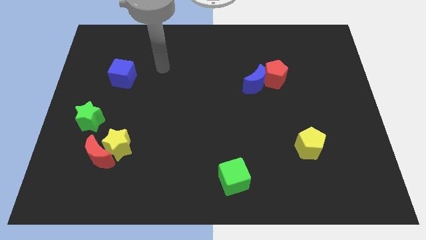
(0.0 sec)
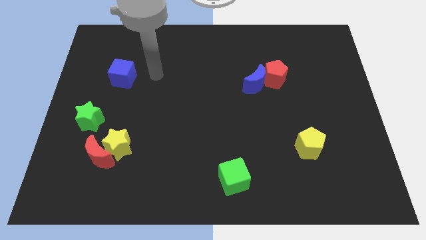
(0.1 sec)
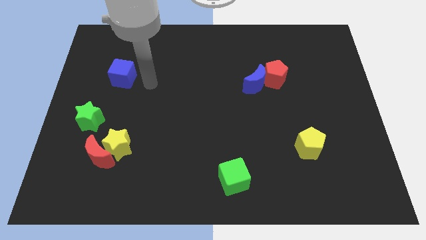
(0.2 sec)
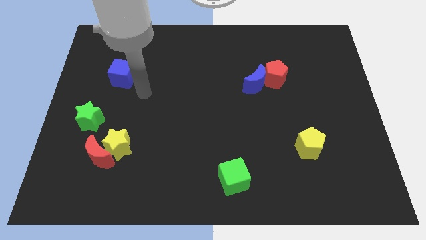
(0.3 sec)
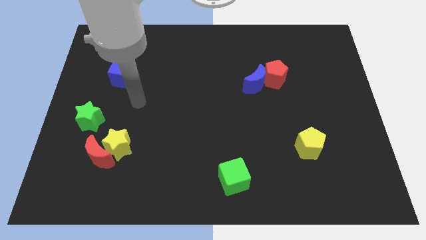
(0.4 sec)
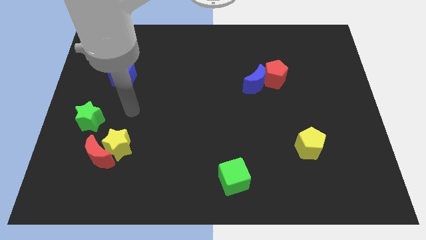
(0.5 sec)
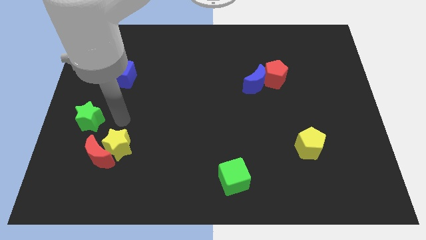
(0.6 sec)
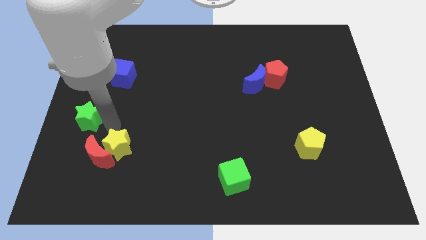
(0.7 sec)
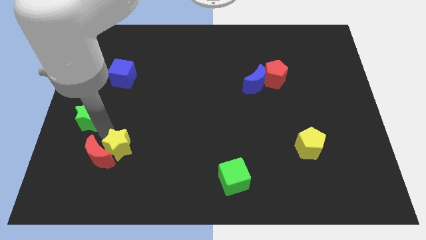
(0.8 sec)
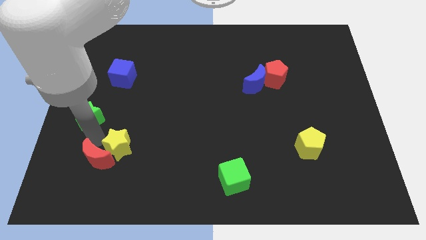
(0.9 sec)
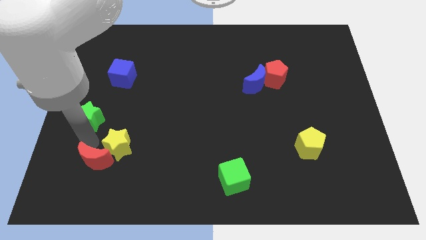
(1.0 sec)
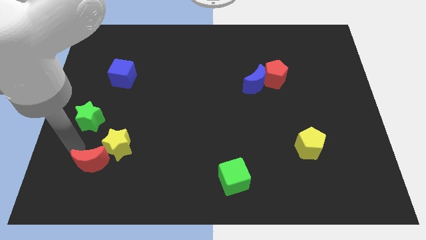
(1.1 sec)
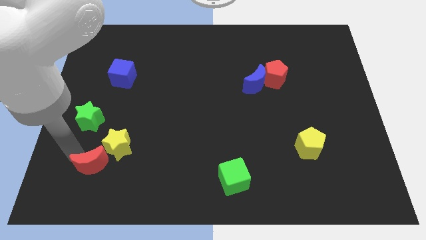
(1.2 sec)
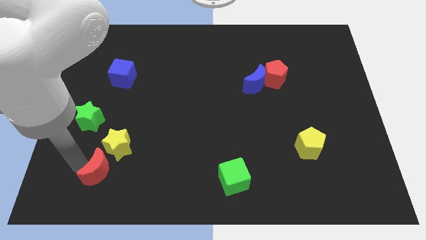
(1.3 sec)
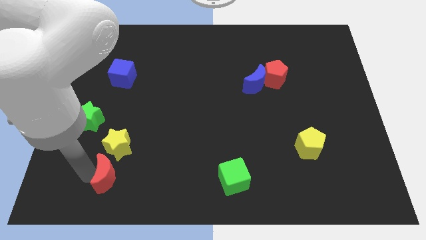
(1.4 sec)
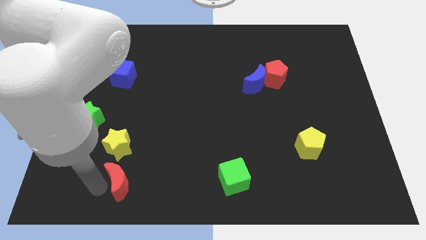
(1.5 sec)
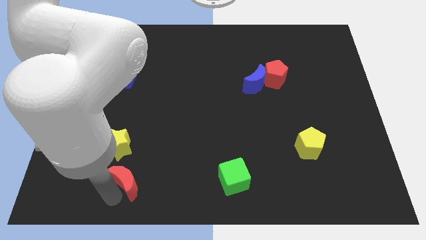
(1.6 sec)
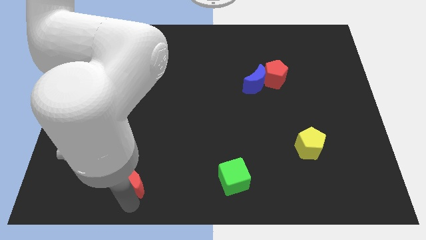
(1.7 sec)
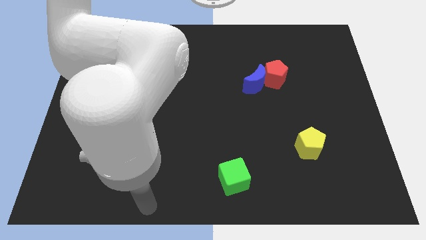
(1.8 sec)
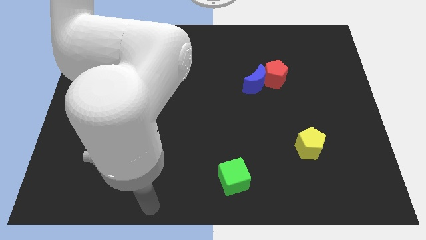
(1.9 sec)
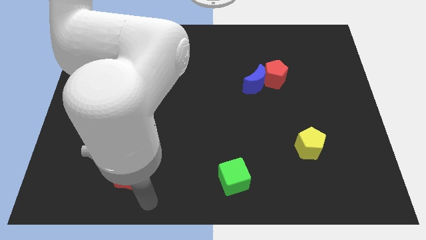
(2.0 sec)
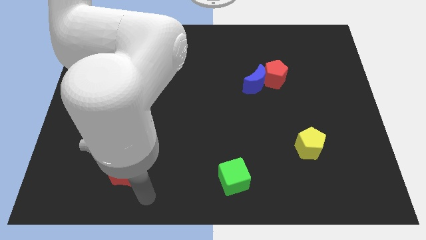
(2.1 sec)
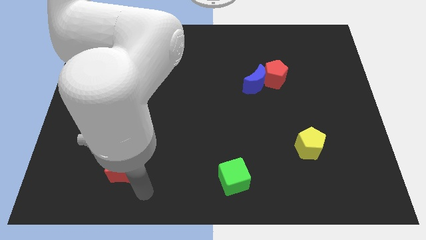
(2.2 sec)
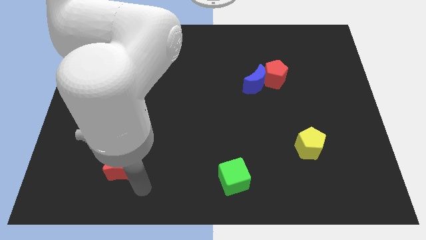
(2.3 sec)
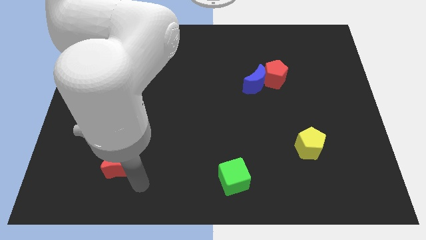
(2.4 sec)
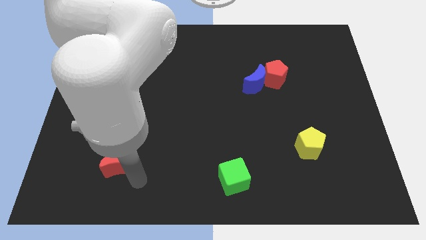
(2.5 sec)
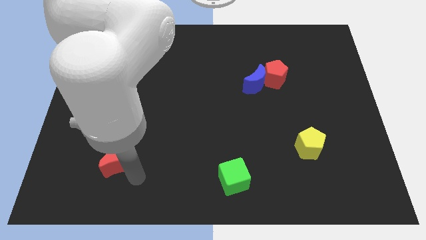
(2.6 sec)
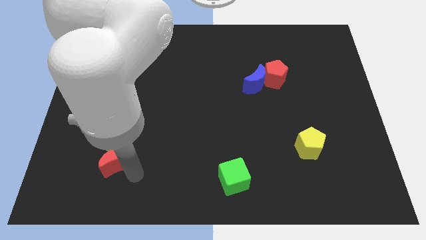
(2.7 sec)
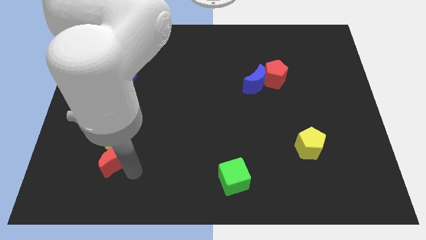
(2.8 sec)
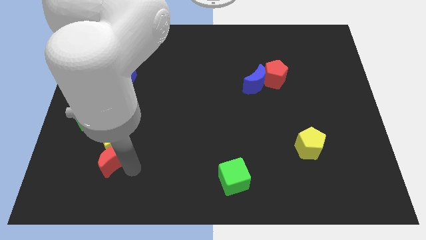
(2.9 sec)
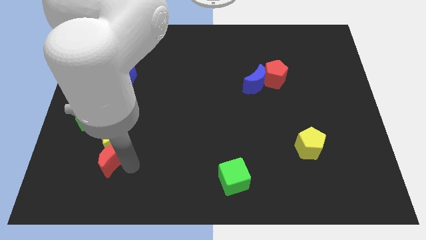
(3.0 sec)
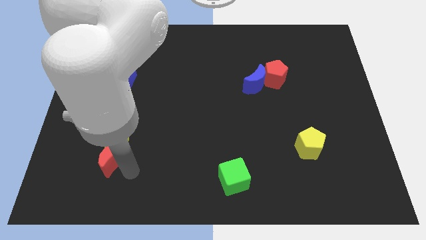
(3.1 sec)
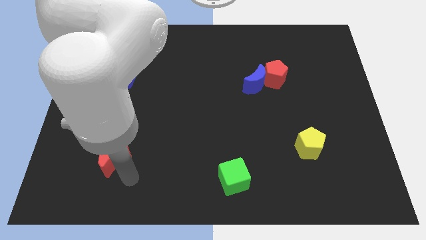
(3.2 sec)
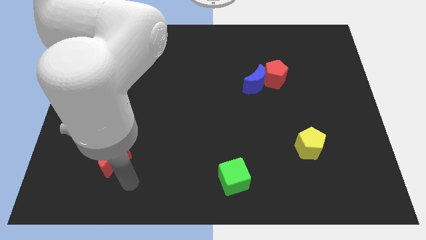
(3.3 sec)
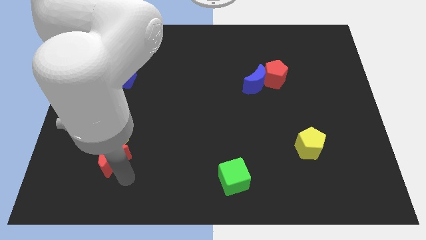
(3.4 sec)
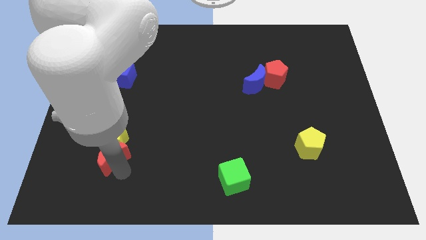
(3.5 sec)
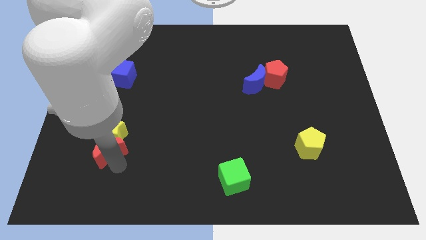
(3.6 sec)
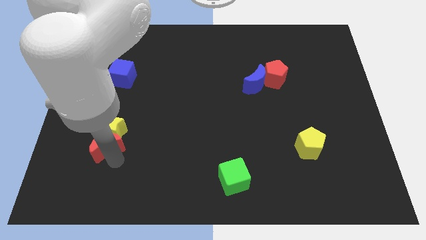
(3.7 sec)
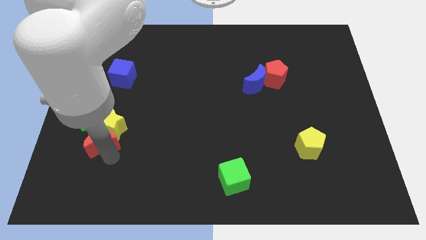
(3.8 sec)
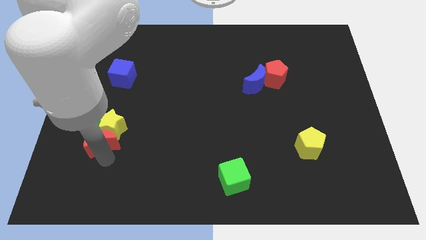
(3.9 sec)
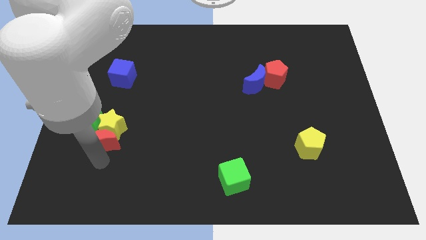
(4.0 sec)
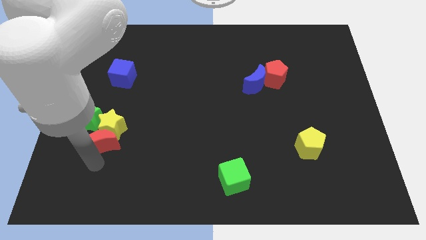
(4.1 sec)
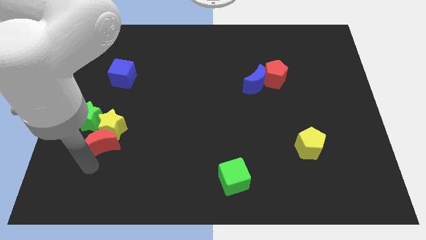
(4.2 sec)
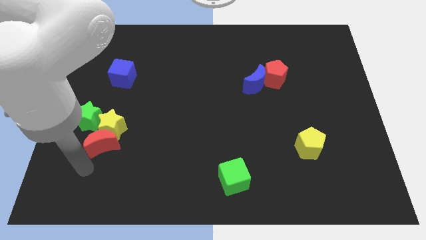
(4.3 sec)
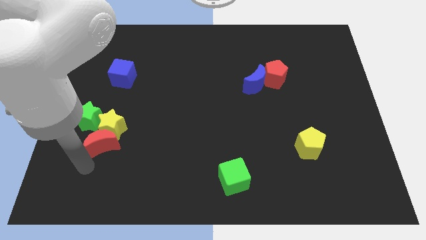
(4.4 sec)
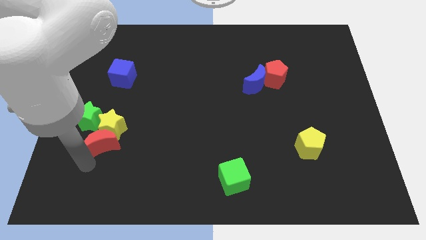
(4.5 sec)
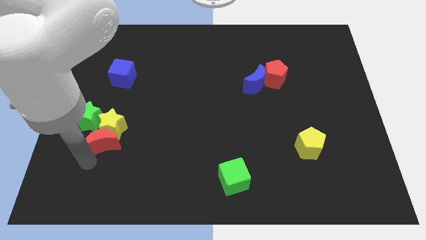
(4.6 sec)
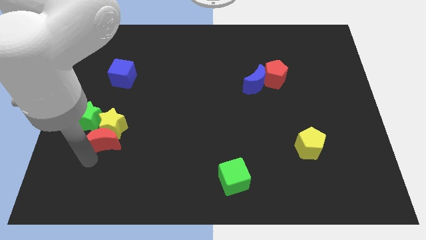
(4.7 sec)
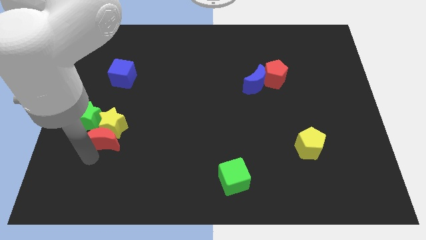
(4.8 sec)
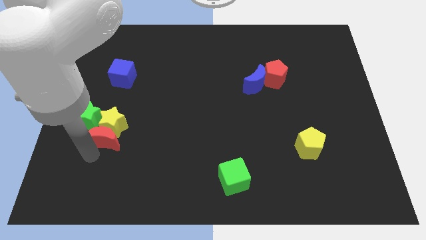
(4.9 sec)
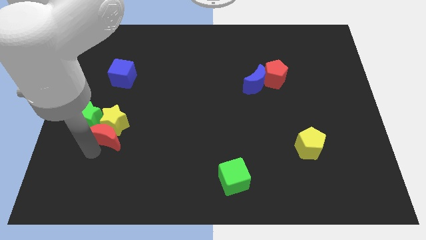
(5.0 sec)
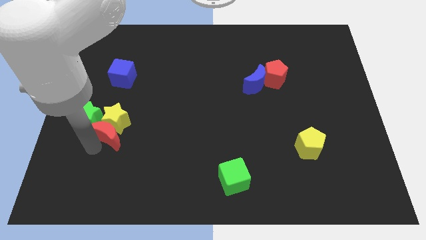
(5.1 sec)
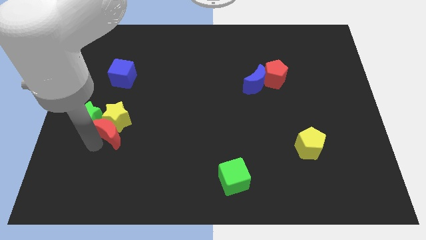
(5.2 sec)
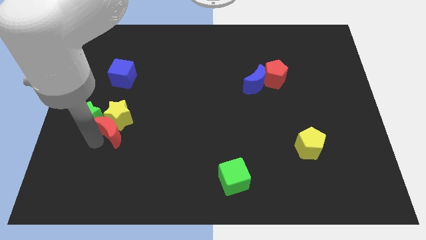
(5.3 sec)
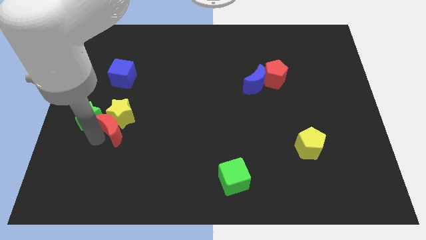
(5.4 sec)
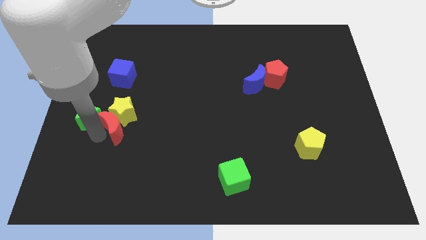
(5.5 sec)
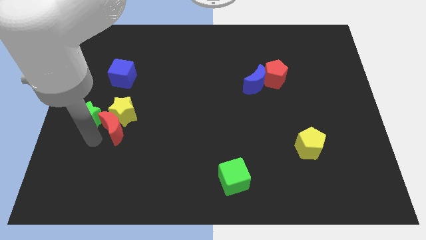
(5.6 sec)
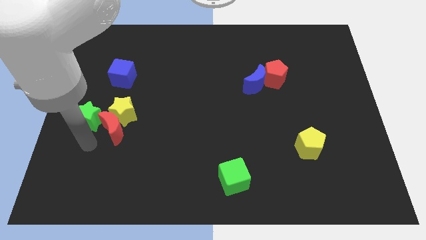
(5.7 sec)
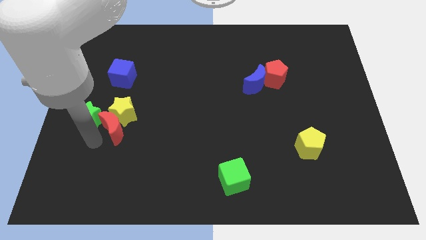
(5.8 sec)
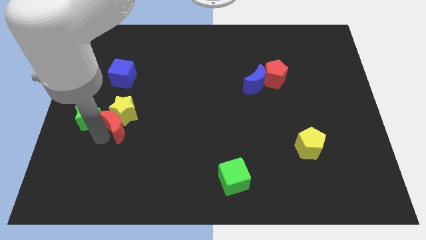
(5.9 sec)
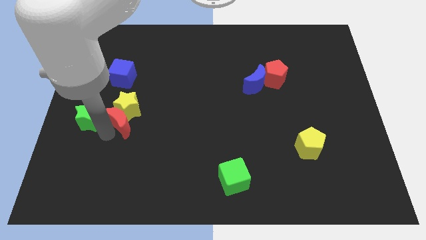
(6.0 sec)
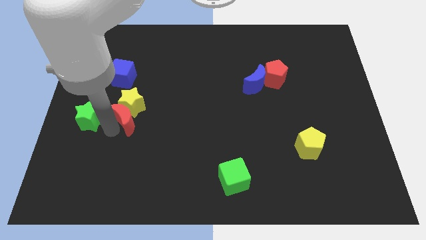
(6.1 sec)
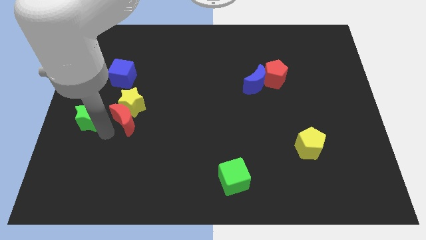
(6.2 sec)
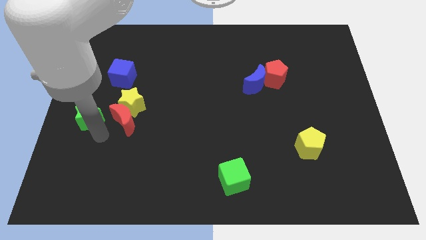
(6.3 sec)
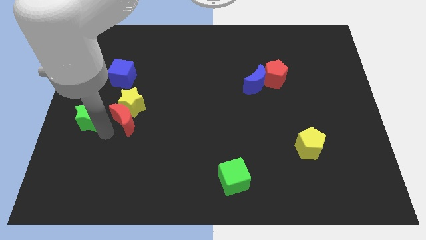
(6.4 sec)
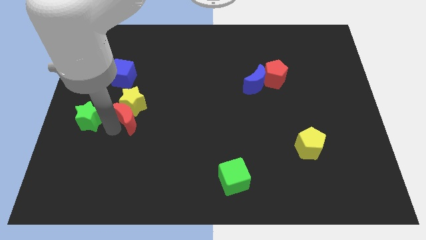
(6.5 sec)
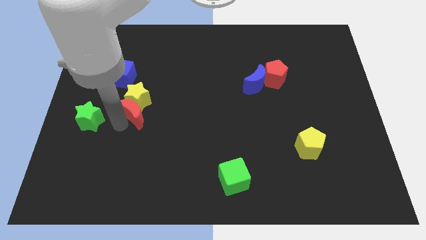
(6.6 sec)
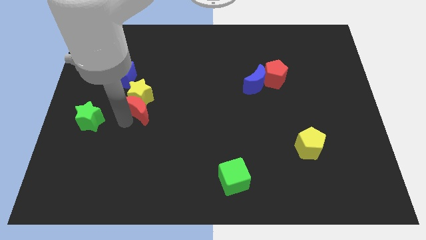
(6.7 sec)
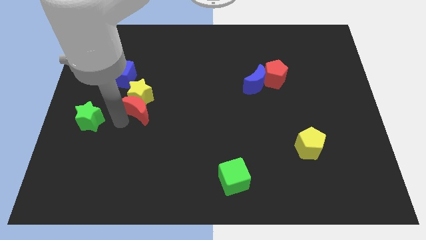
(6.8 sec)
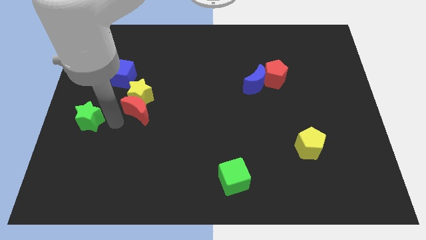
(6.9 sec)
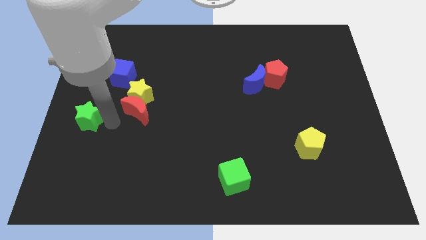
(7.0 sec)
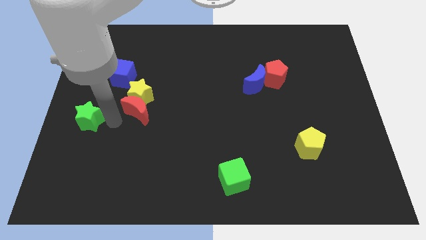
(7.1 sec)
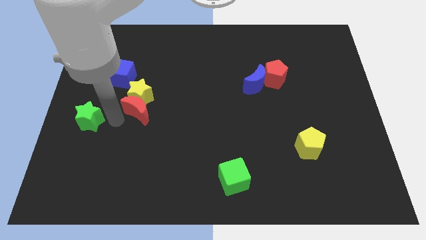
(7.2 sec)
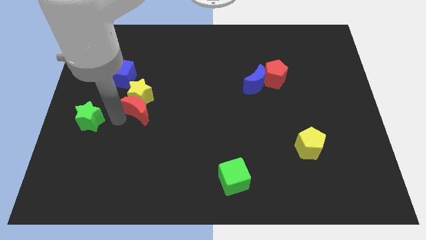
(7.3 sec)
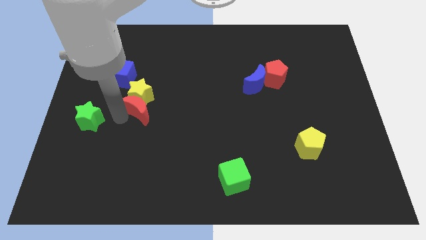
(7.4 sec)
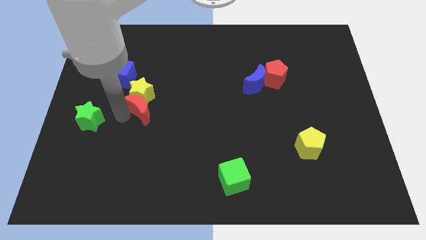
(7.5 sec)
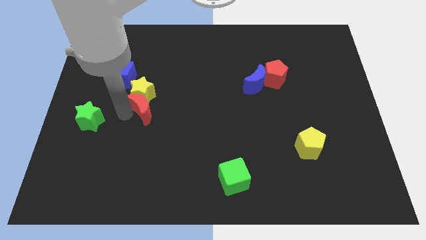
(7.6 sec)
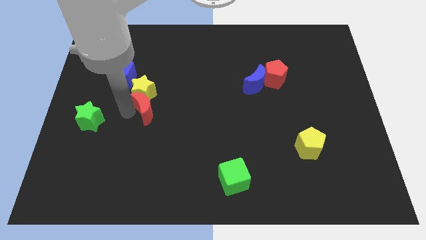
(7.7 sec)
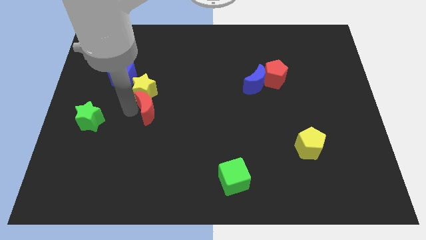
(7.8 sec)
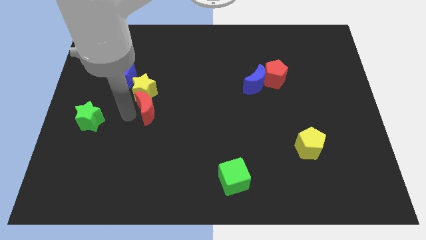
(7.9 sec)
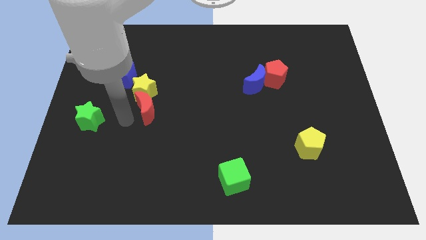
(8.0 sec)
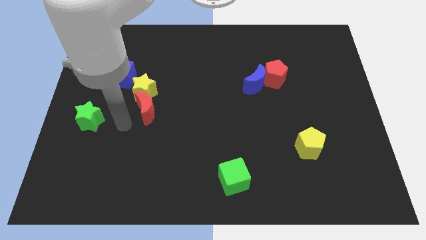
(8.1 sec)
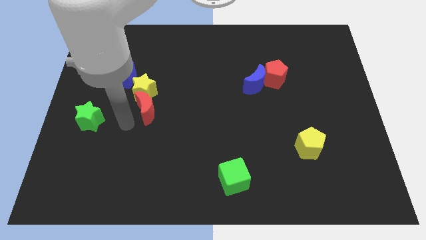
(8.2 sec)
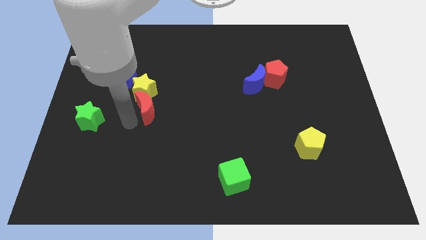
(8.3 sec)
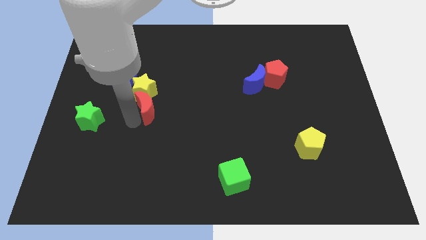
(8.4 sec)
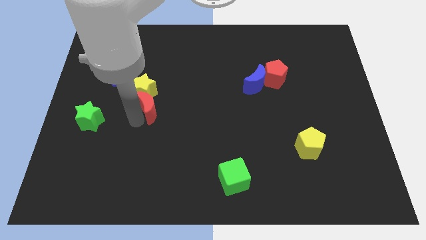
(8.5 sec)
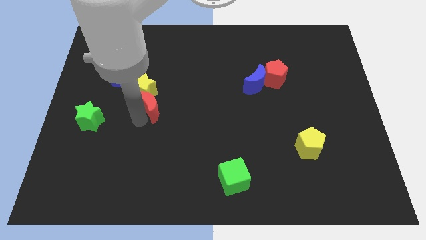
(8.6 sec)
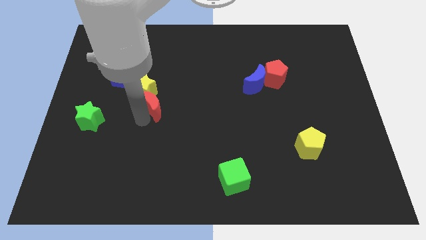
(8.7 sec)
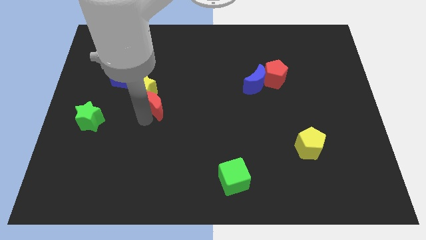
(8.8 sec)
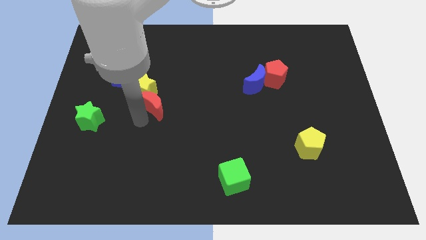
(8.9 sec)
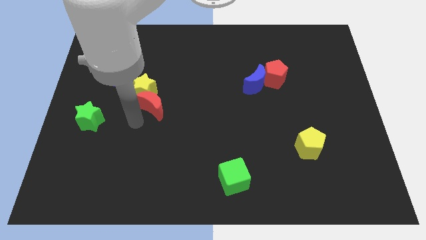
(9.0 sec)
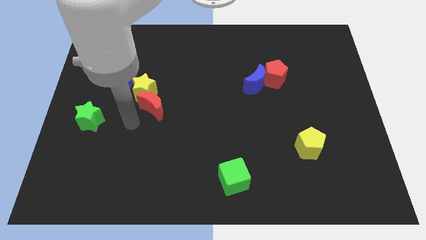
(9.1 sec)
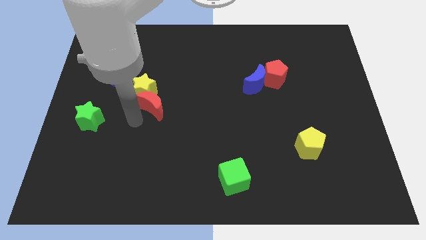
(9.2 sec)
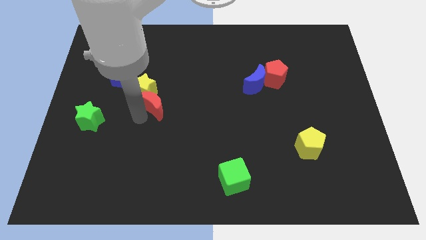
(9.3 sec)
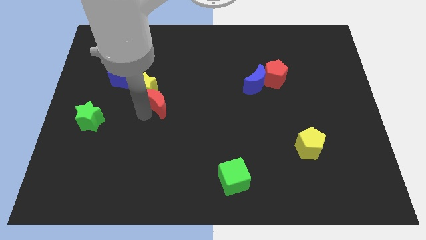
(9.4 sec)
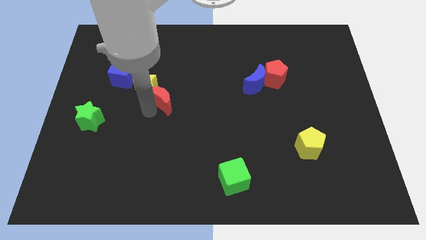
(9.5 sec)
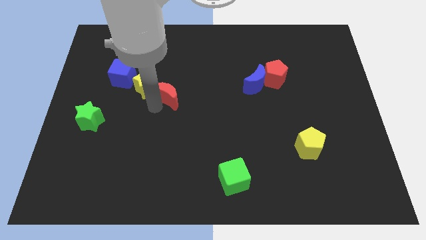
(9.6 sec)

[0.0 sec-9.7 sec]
slide the red moon up and right diagonally
